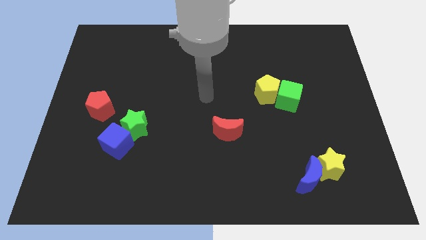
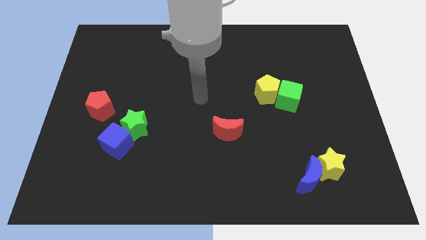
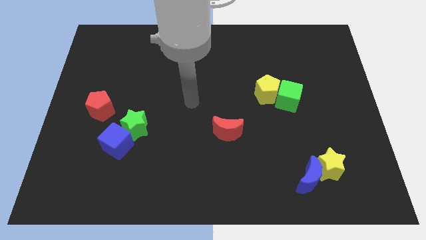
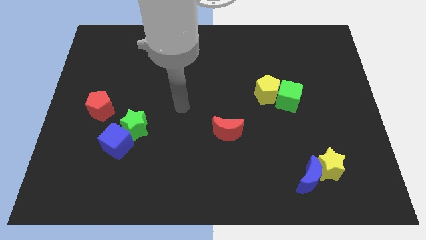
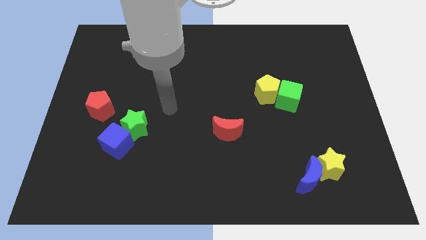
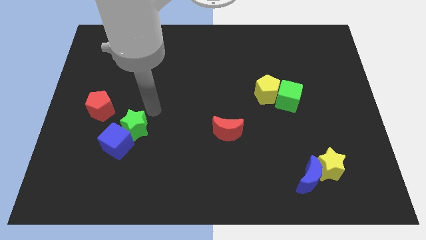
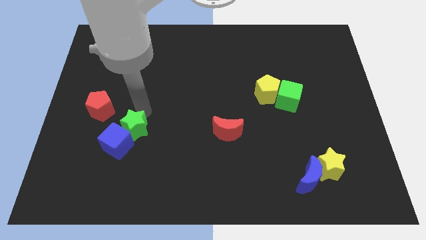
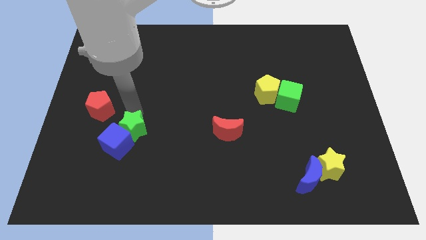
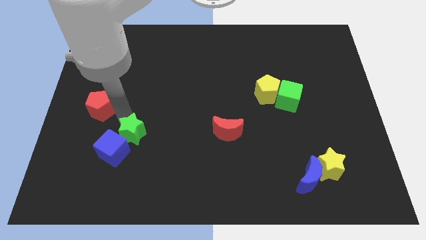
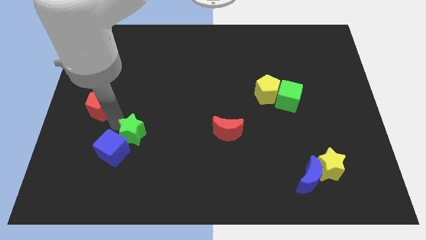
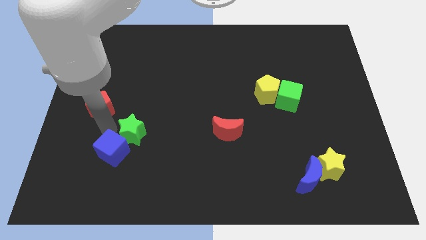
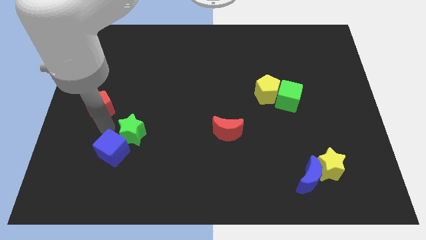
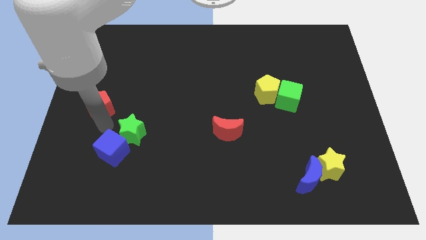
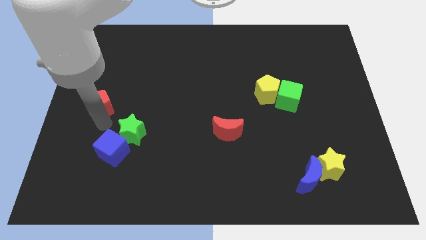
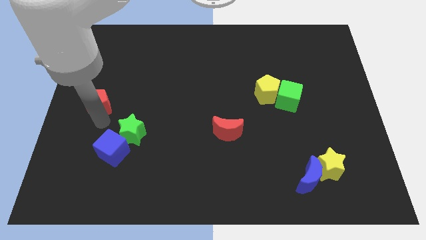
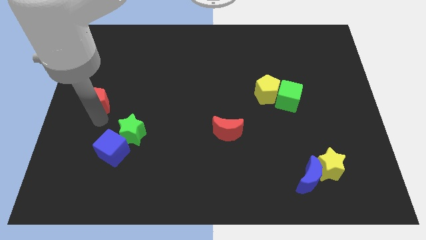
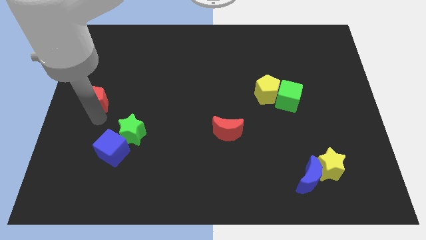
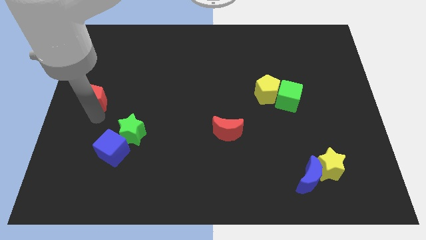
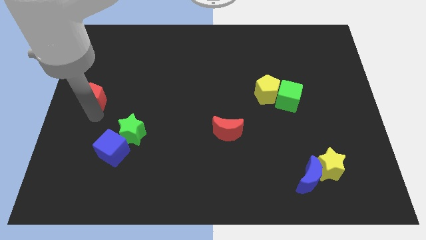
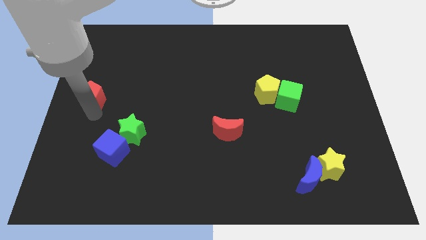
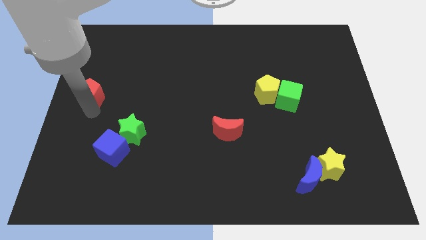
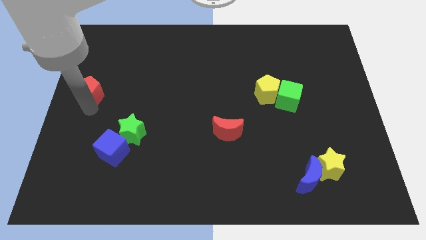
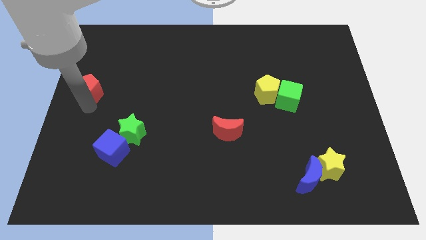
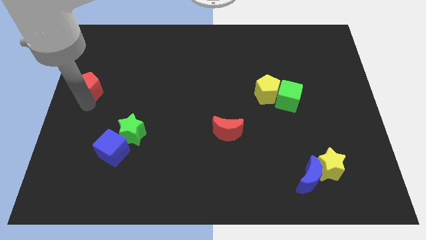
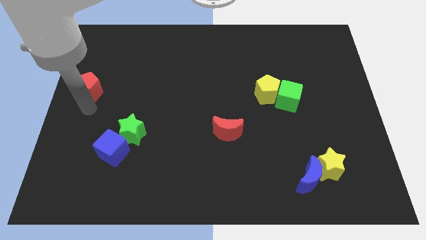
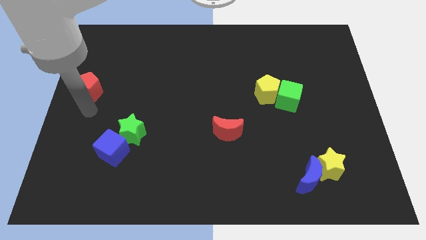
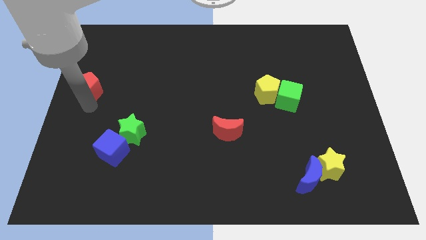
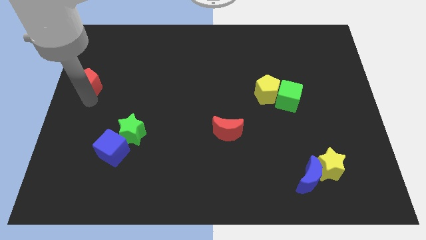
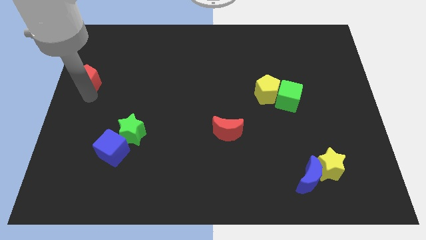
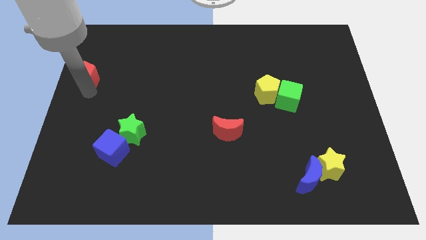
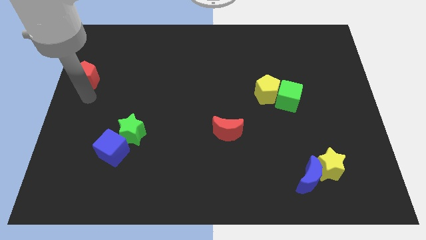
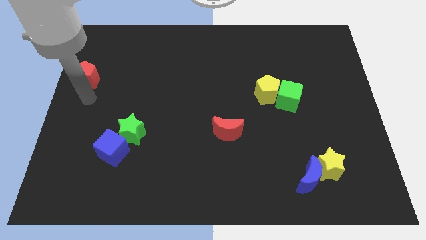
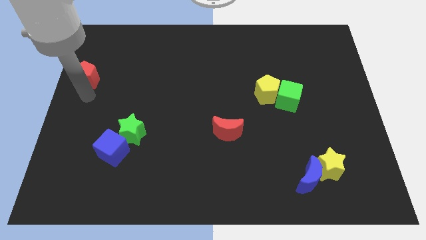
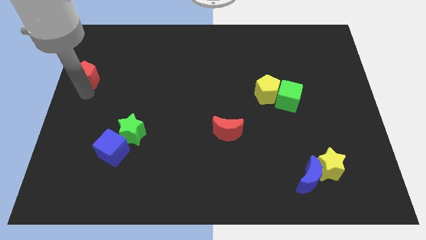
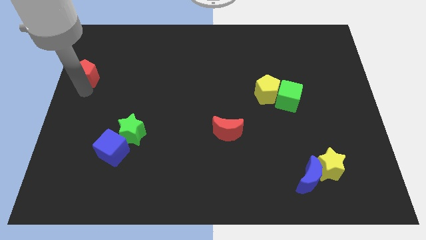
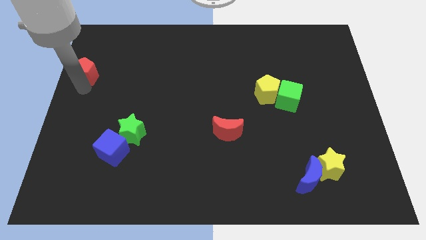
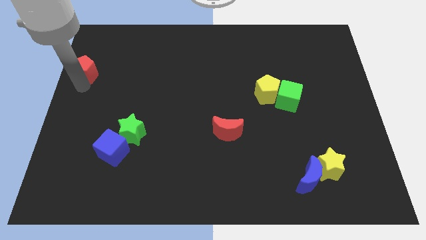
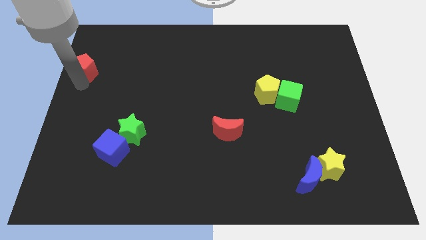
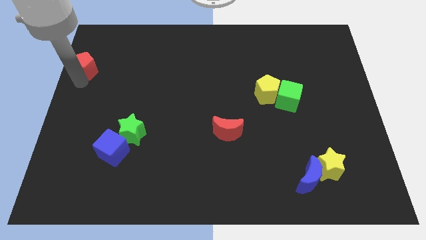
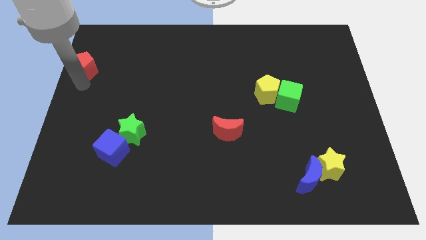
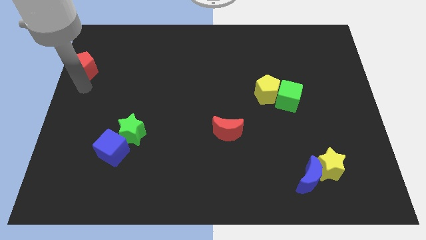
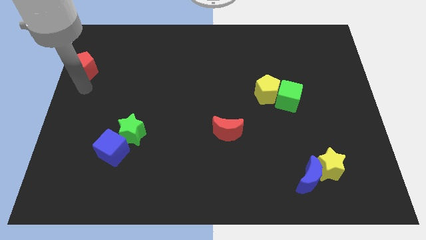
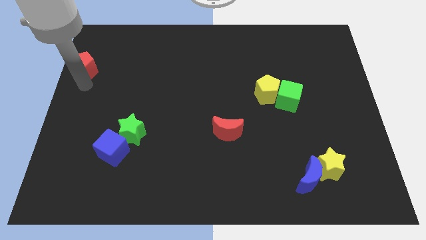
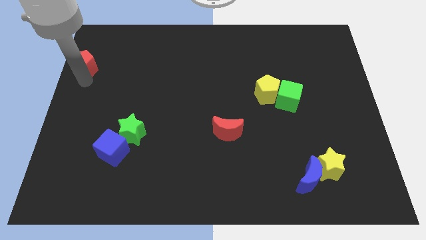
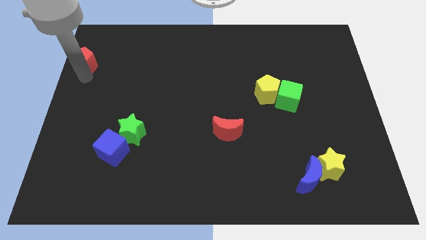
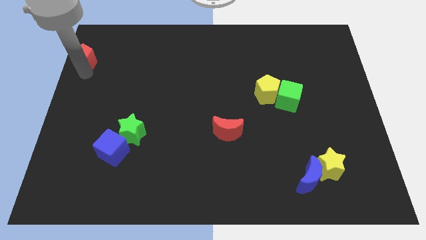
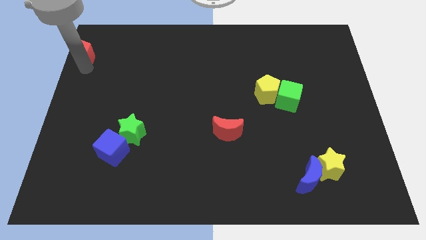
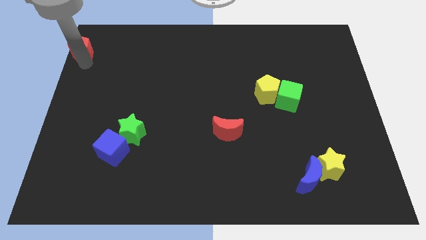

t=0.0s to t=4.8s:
push the red pentagon to the upper left corner

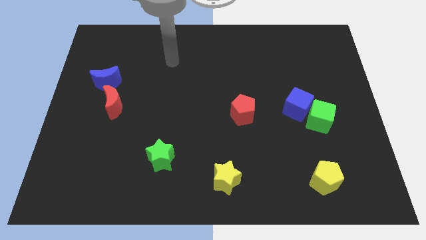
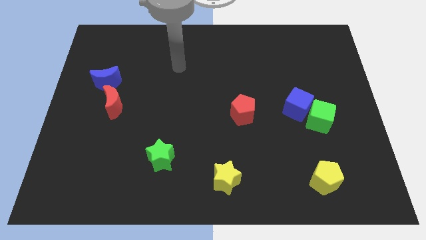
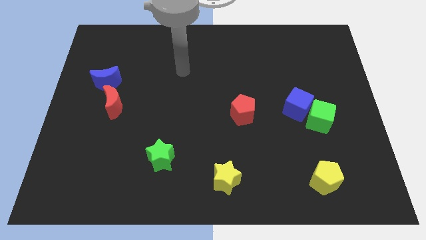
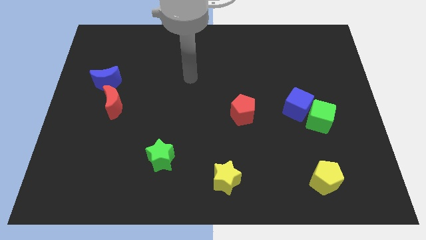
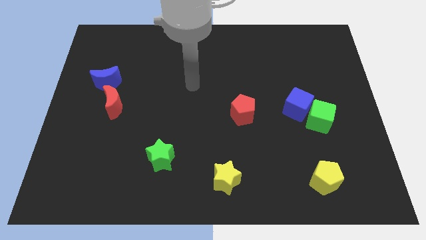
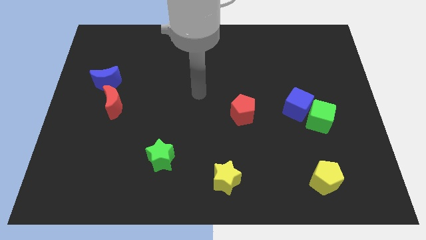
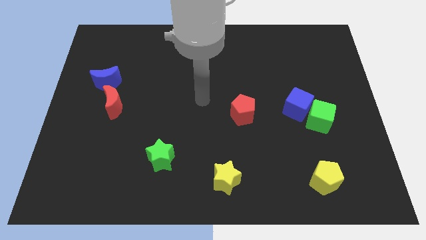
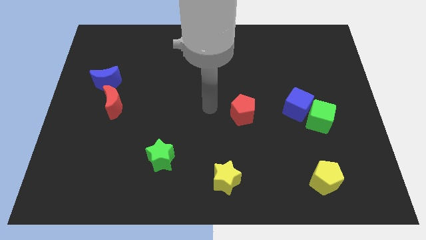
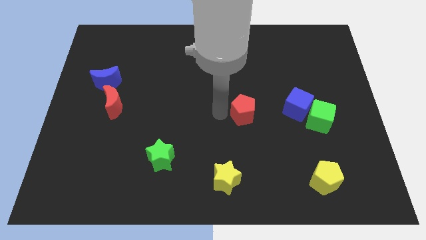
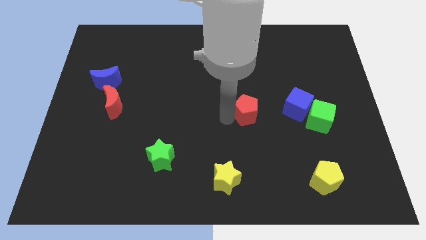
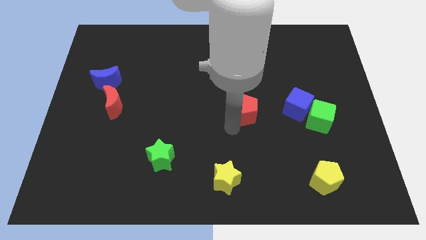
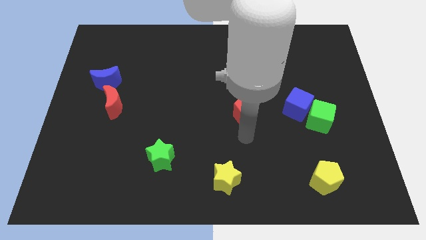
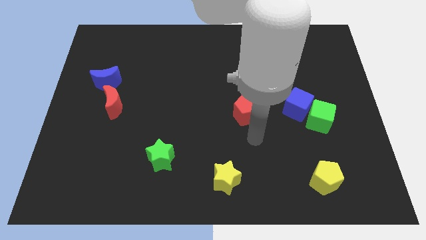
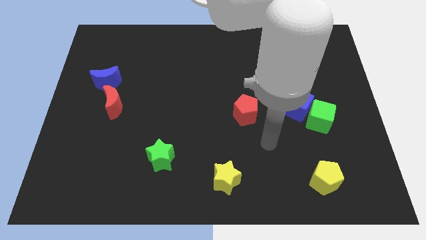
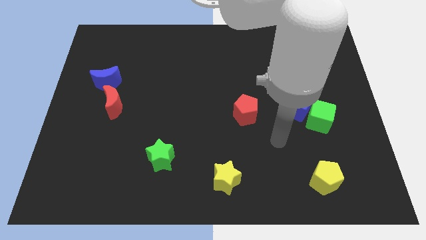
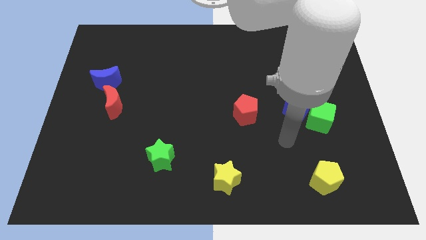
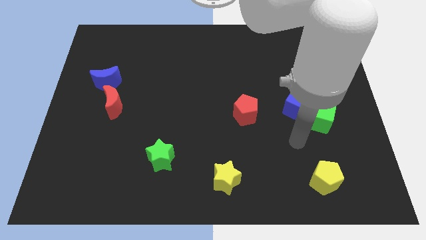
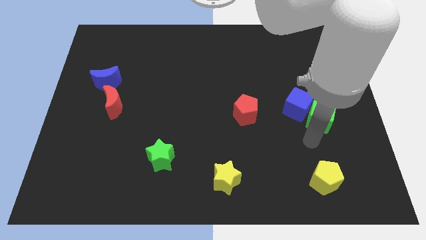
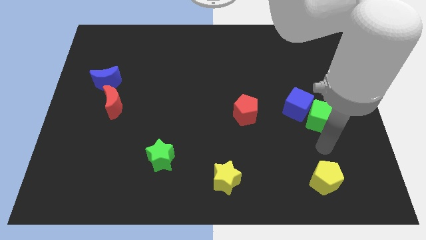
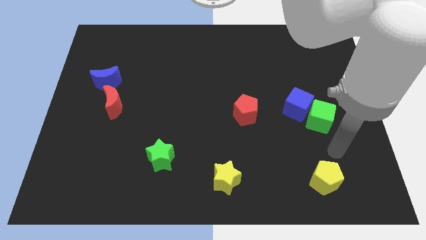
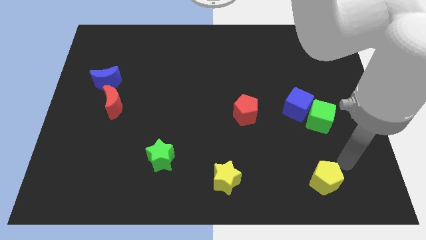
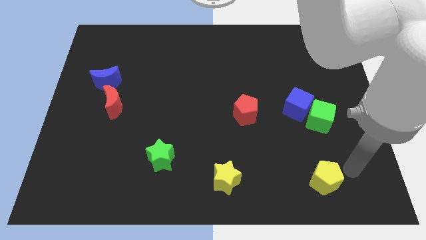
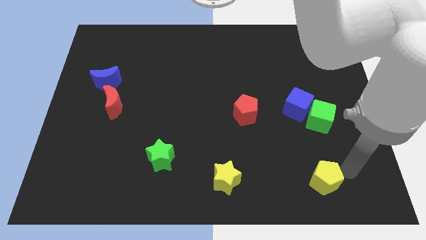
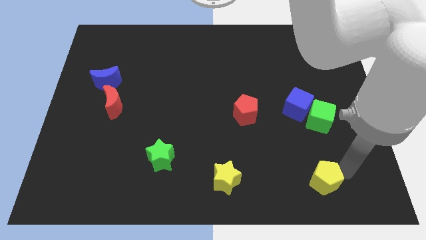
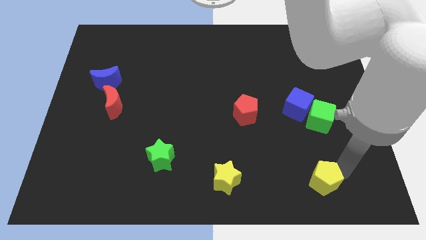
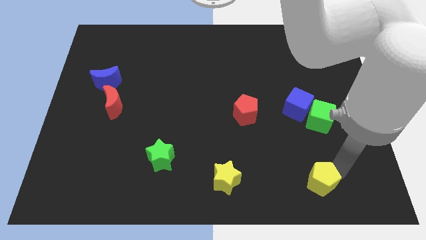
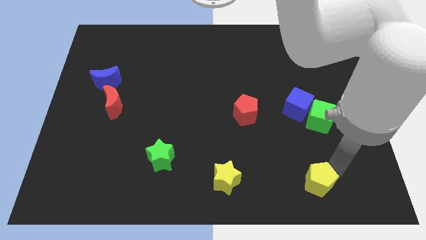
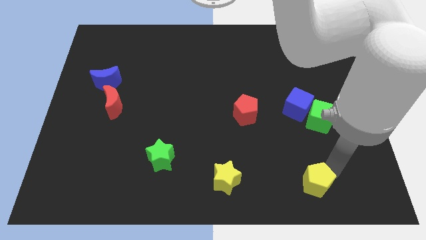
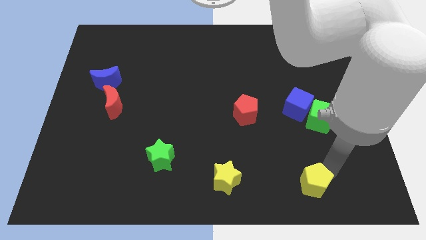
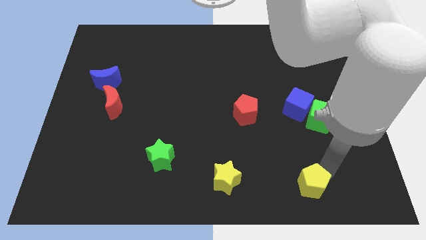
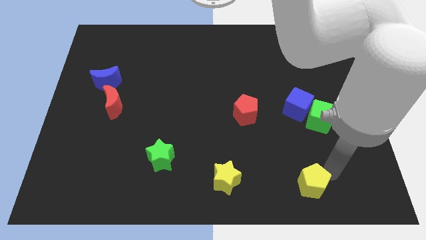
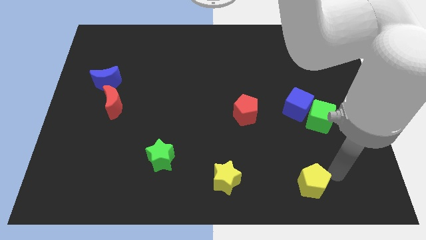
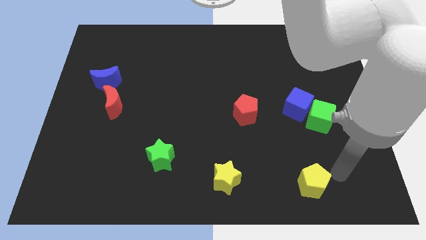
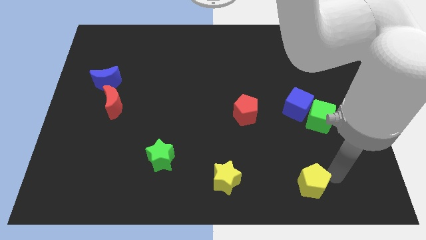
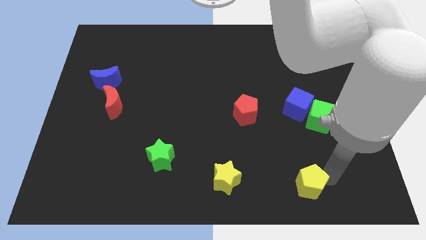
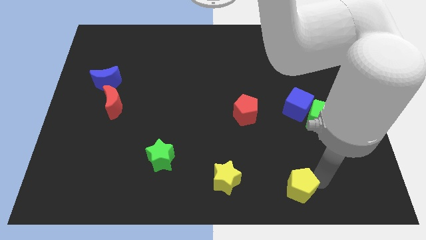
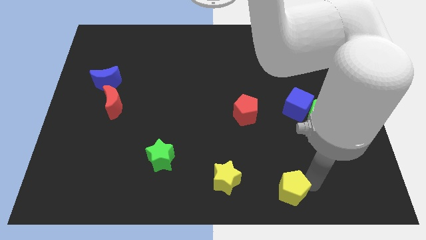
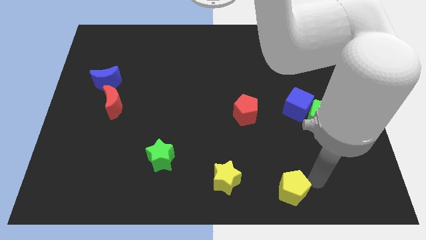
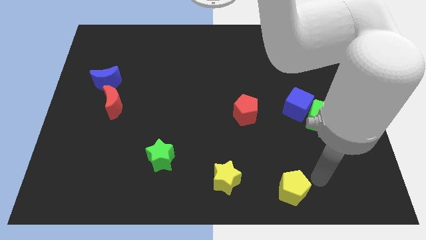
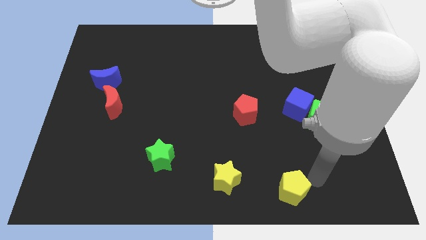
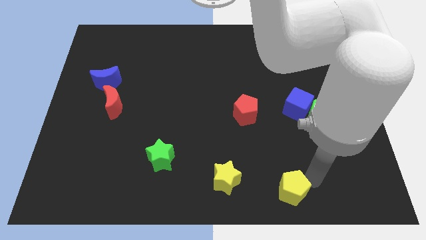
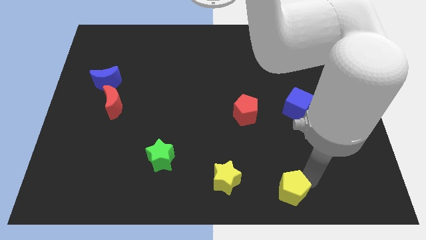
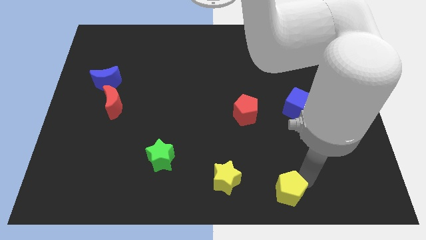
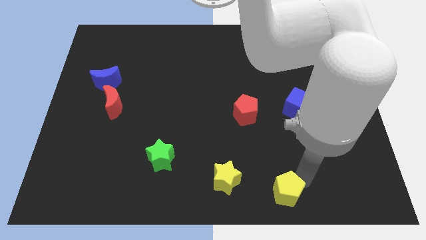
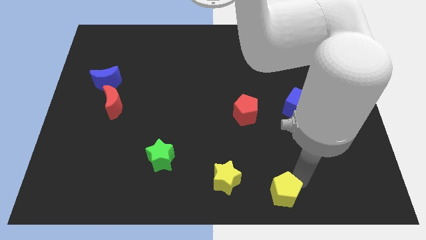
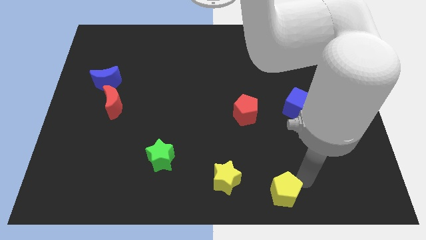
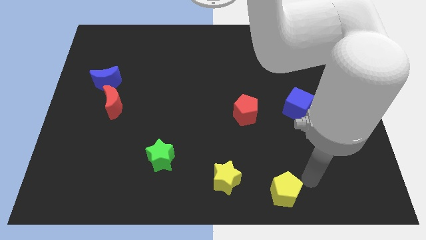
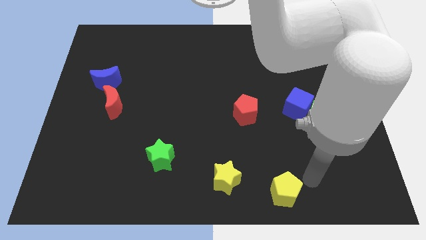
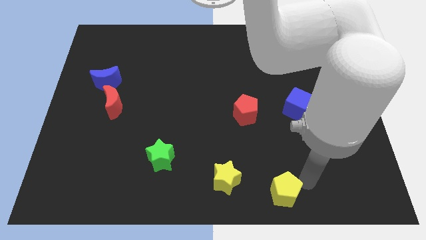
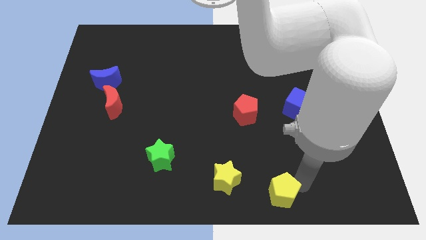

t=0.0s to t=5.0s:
move the yellow pentagon to the bottom
